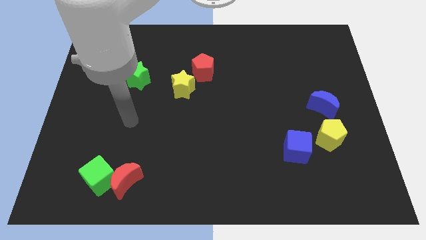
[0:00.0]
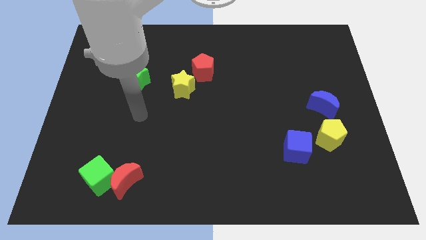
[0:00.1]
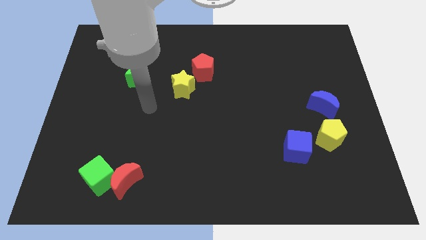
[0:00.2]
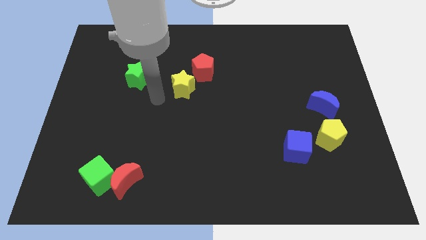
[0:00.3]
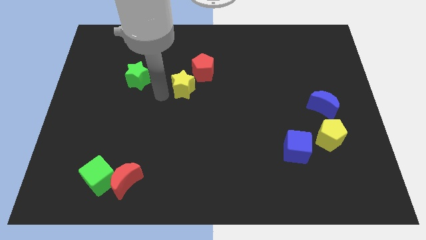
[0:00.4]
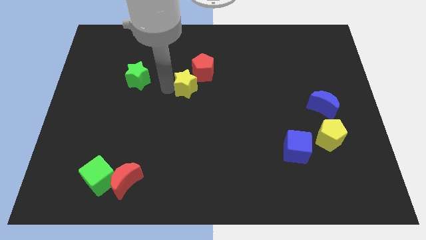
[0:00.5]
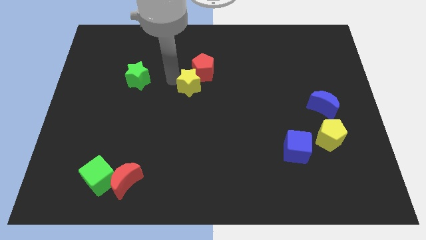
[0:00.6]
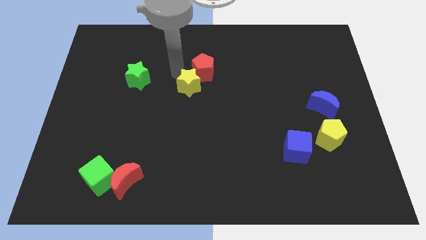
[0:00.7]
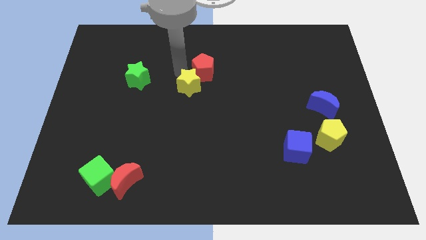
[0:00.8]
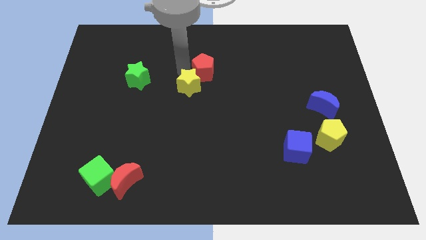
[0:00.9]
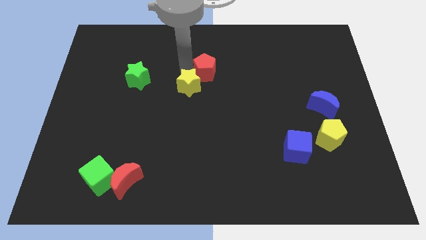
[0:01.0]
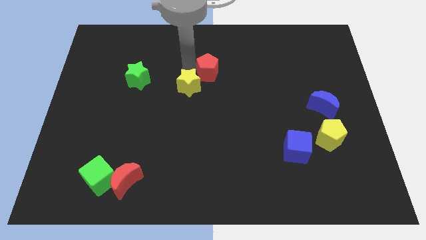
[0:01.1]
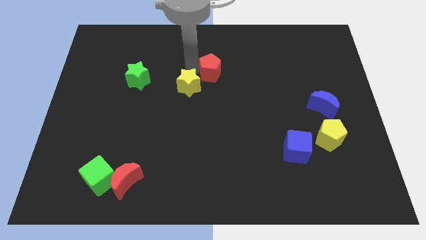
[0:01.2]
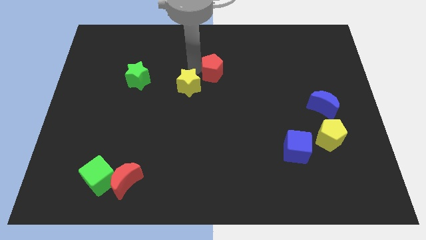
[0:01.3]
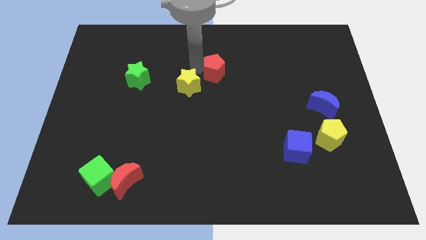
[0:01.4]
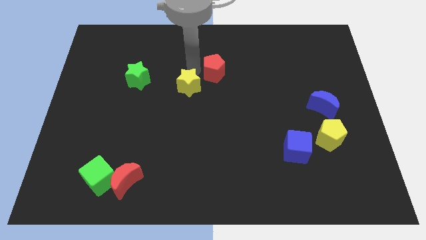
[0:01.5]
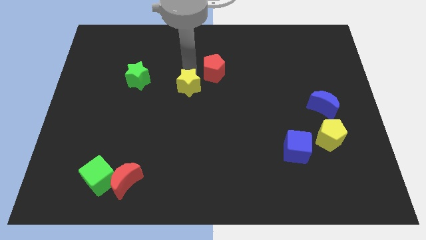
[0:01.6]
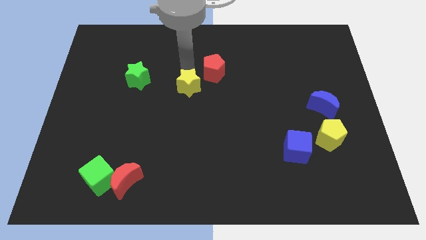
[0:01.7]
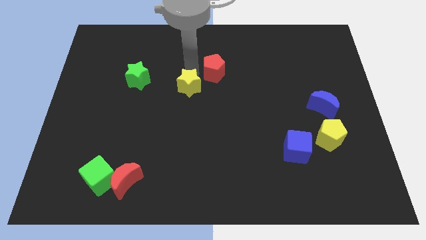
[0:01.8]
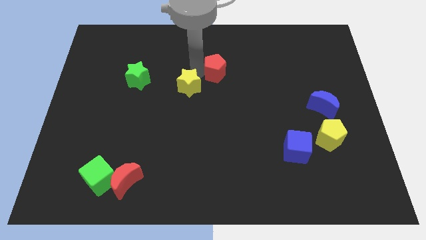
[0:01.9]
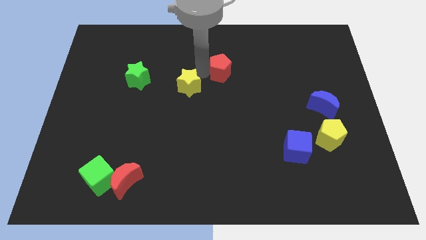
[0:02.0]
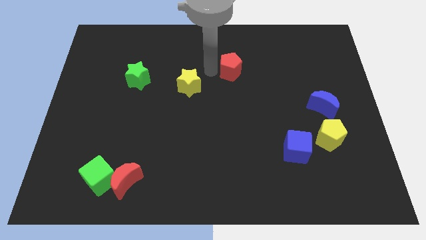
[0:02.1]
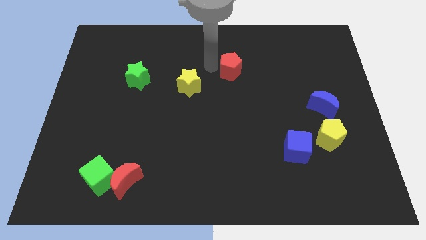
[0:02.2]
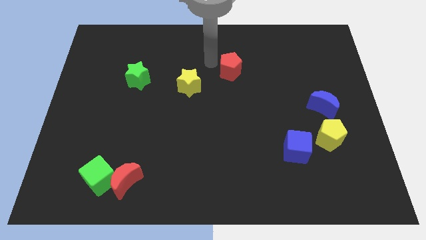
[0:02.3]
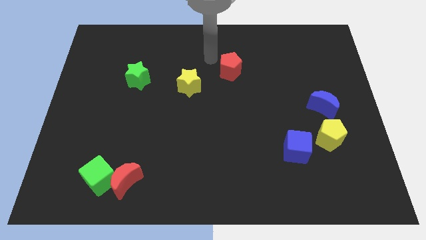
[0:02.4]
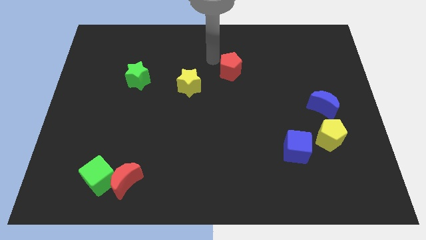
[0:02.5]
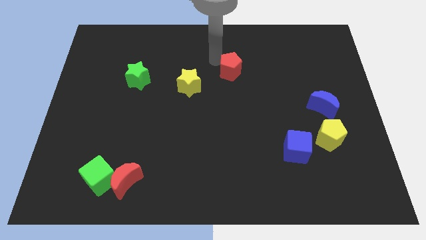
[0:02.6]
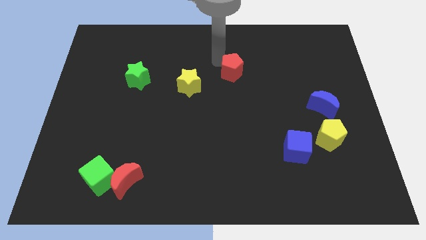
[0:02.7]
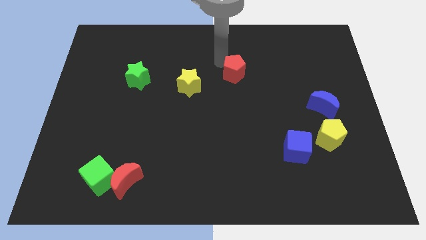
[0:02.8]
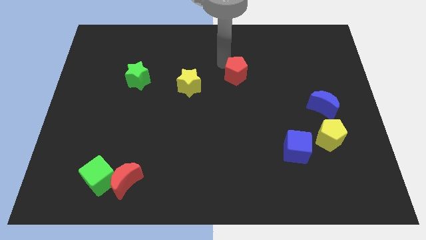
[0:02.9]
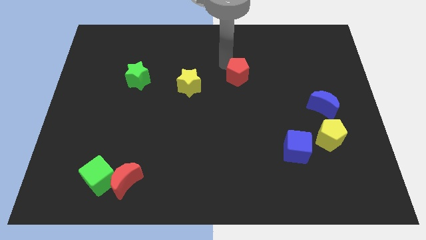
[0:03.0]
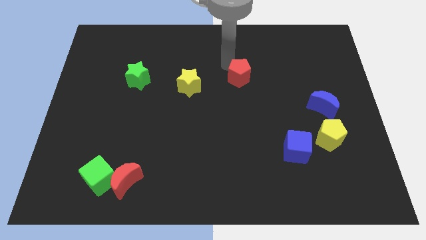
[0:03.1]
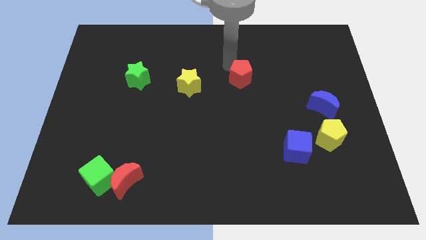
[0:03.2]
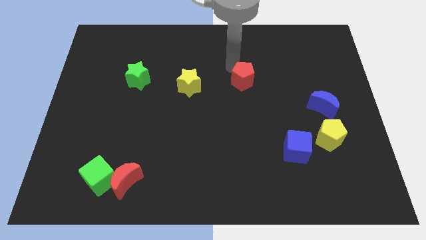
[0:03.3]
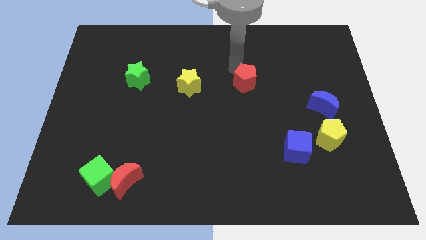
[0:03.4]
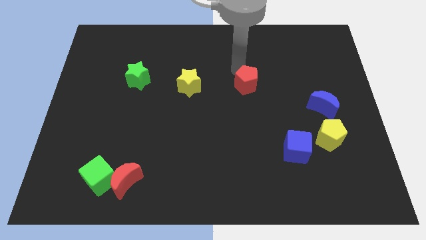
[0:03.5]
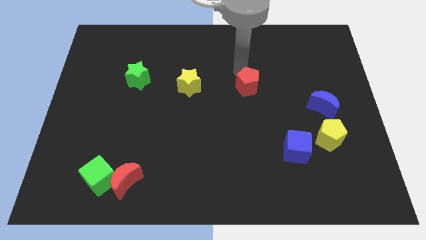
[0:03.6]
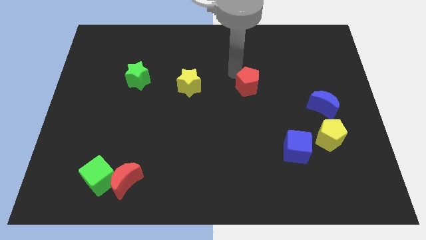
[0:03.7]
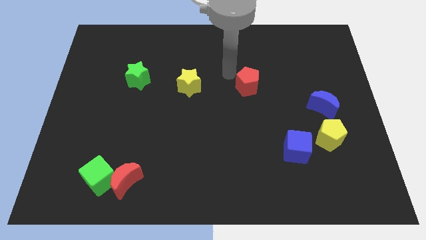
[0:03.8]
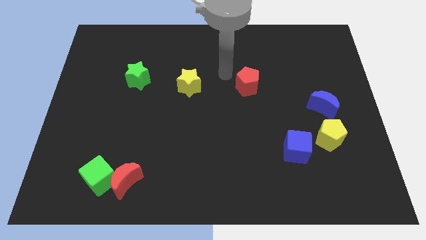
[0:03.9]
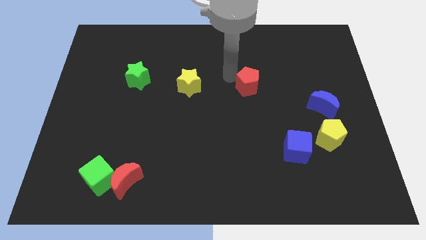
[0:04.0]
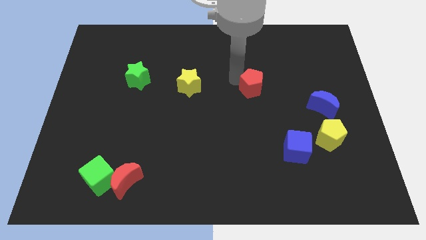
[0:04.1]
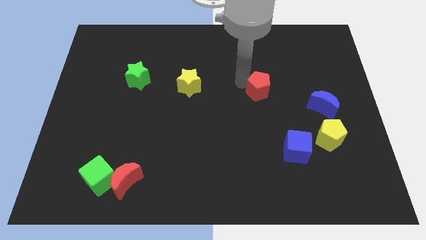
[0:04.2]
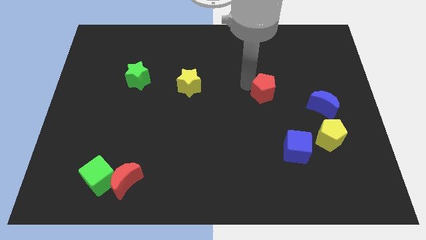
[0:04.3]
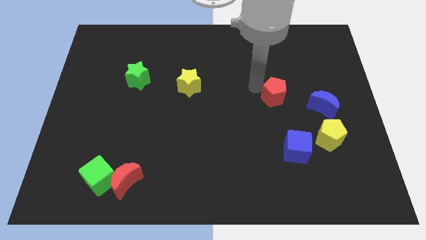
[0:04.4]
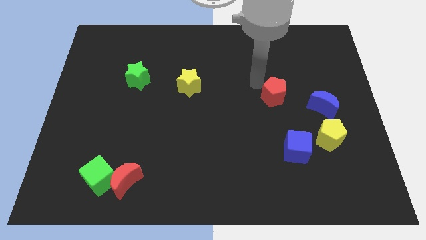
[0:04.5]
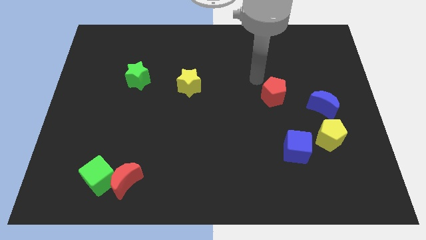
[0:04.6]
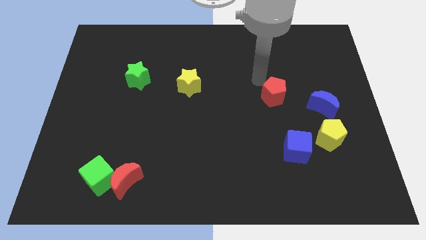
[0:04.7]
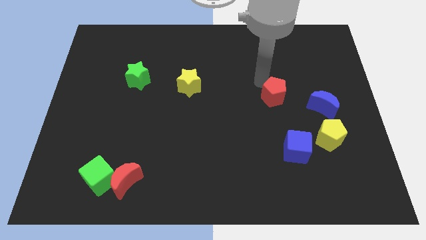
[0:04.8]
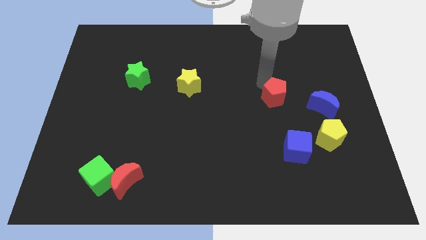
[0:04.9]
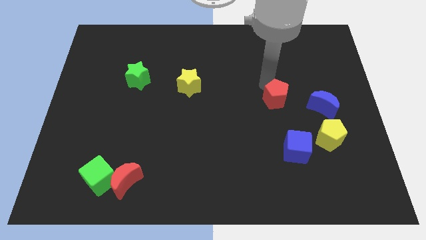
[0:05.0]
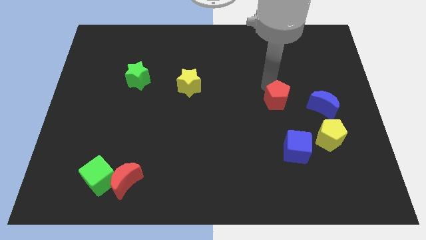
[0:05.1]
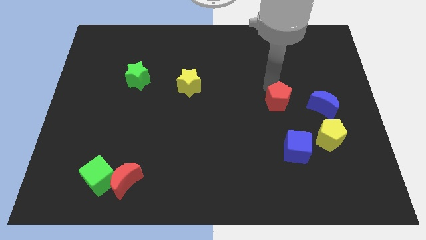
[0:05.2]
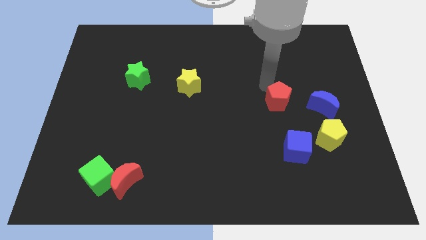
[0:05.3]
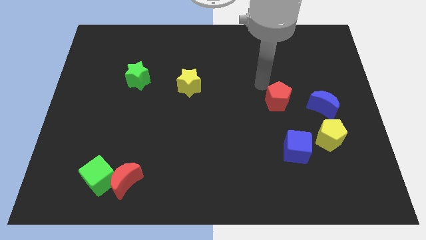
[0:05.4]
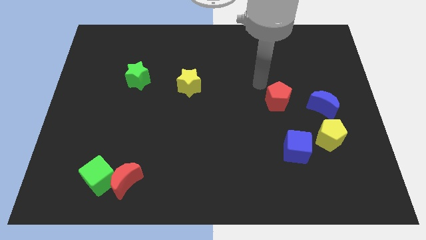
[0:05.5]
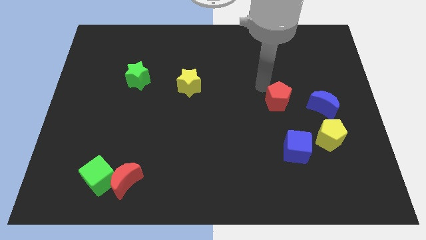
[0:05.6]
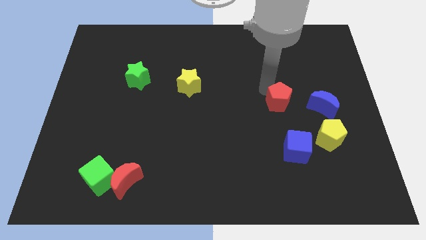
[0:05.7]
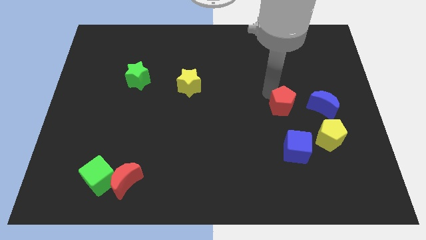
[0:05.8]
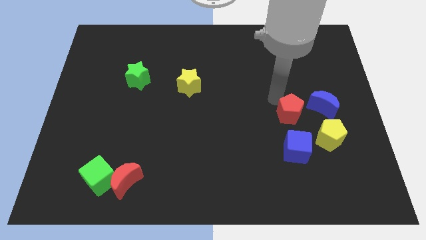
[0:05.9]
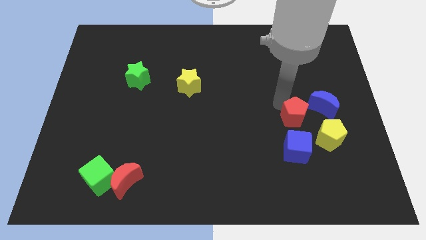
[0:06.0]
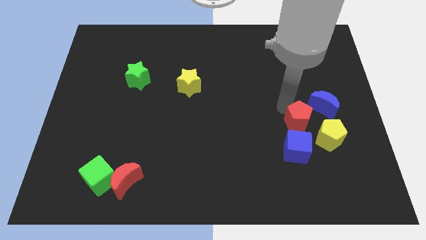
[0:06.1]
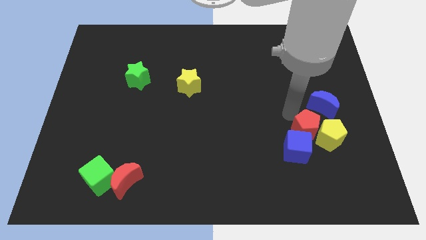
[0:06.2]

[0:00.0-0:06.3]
put the red pentagon to the yellow pentagon

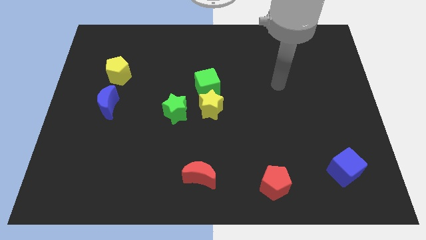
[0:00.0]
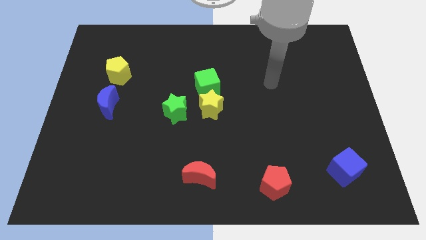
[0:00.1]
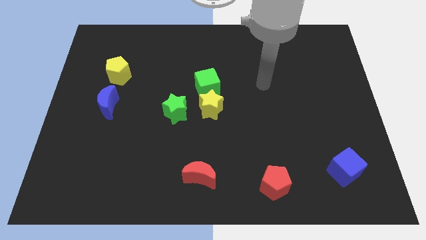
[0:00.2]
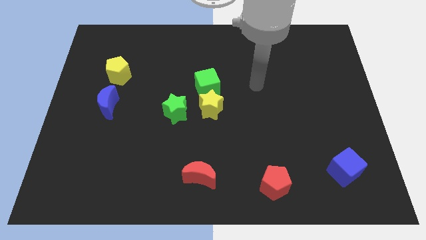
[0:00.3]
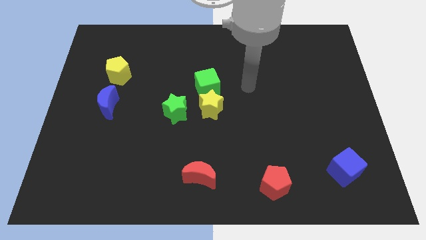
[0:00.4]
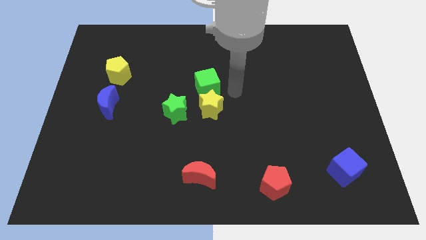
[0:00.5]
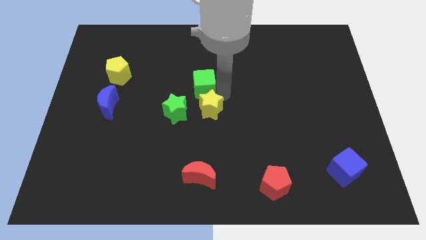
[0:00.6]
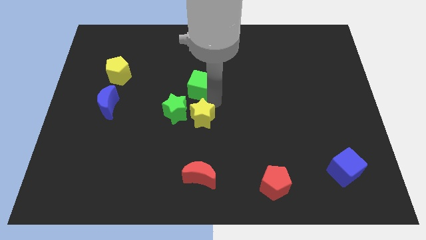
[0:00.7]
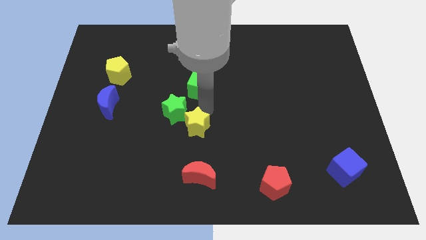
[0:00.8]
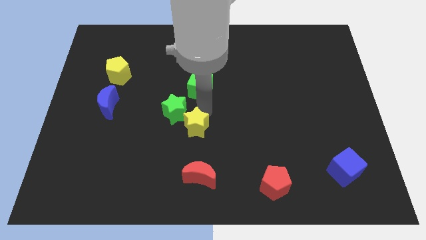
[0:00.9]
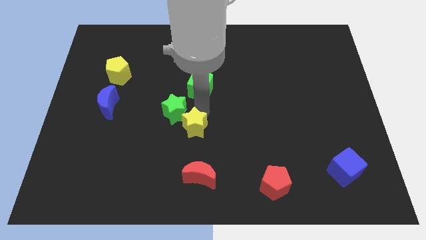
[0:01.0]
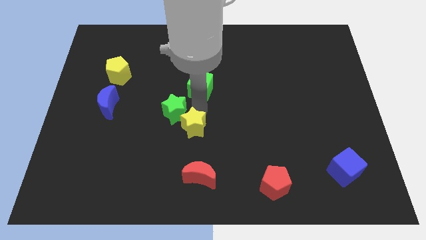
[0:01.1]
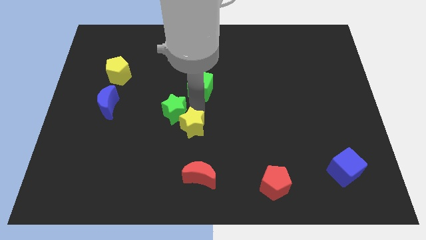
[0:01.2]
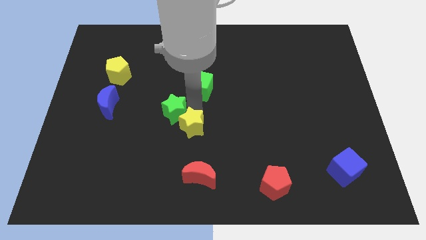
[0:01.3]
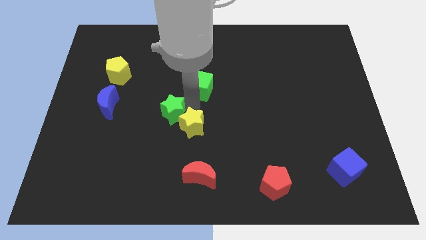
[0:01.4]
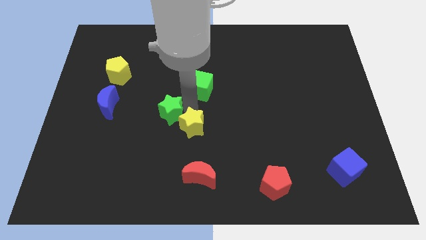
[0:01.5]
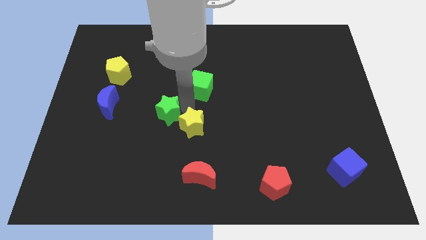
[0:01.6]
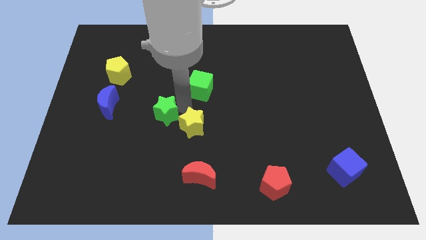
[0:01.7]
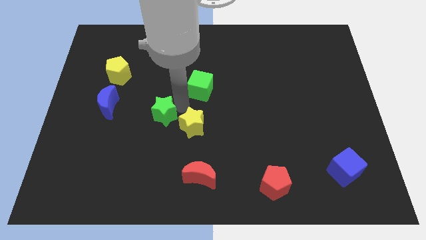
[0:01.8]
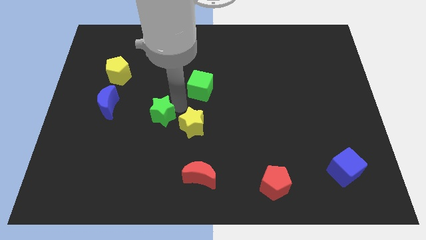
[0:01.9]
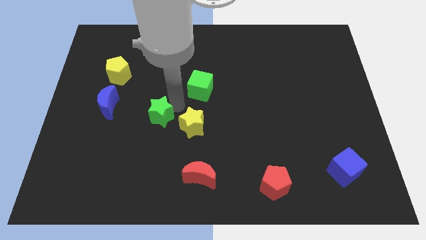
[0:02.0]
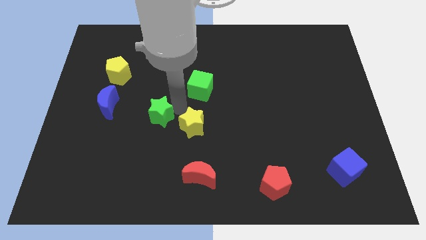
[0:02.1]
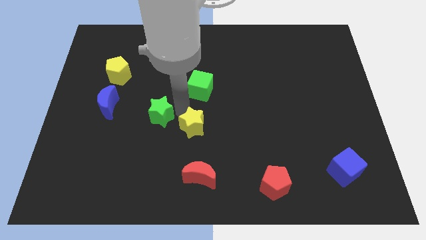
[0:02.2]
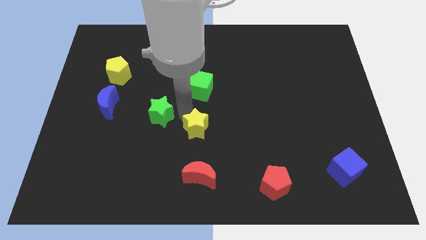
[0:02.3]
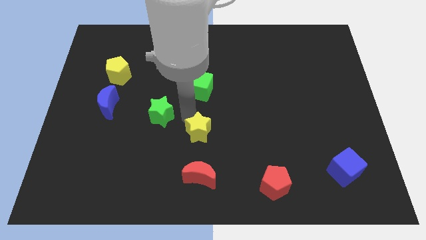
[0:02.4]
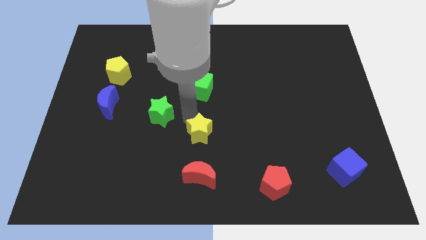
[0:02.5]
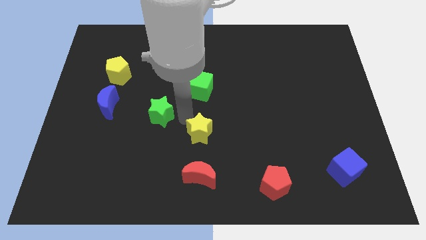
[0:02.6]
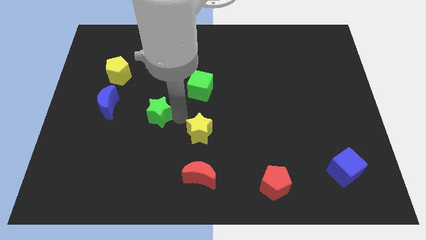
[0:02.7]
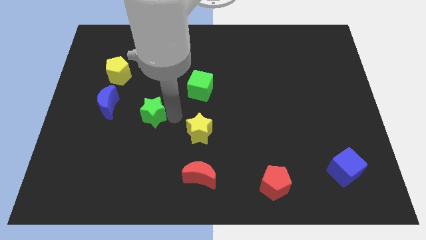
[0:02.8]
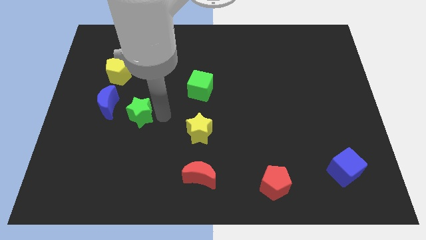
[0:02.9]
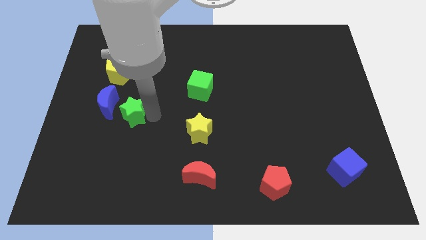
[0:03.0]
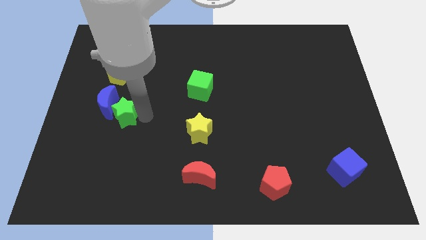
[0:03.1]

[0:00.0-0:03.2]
move the green star close to the blue moon
